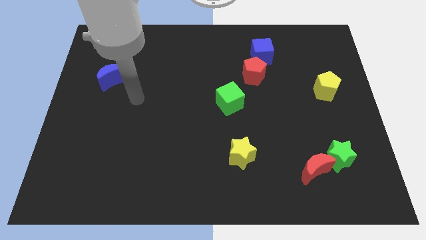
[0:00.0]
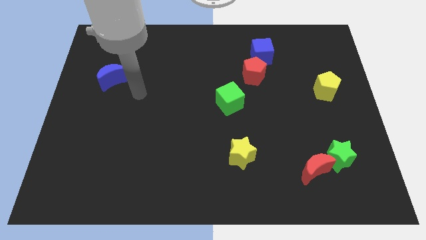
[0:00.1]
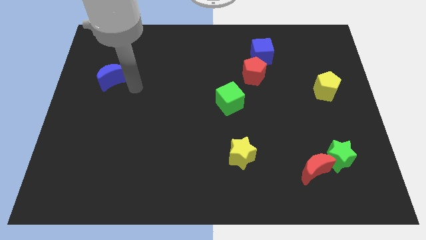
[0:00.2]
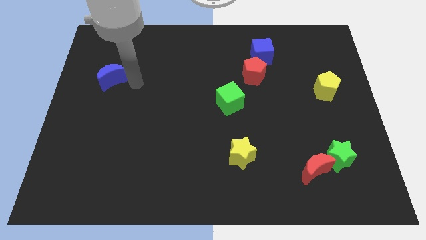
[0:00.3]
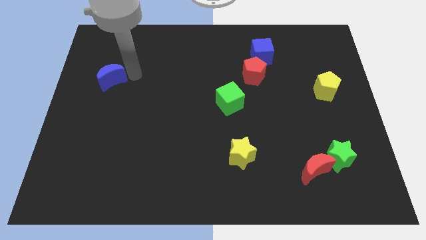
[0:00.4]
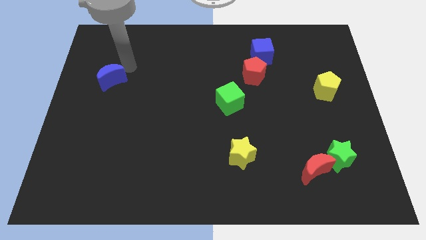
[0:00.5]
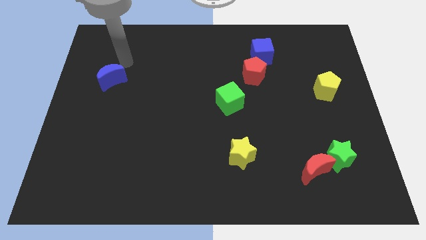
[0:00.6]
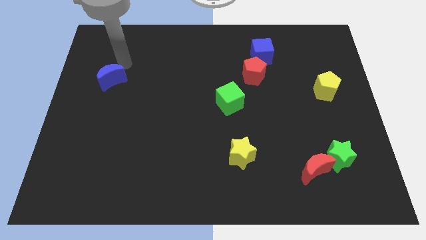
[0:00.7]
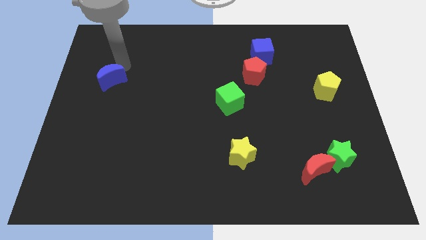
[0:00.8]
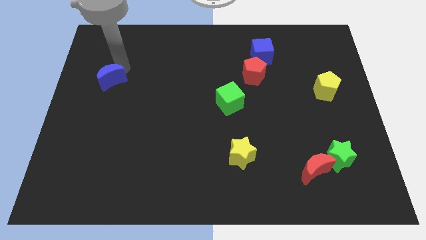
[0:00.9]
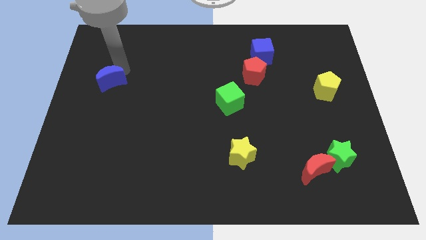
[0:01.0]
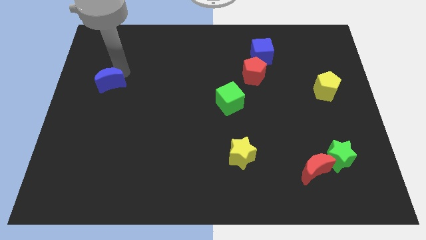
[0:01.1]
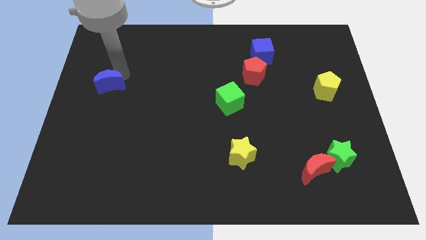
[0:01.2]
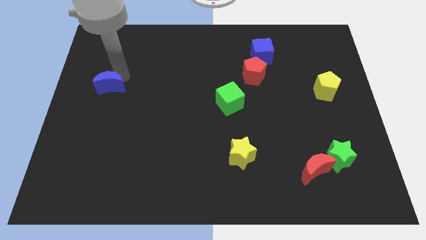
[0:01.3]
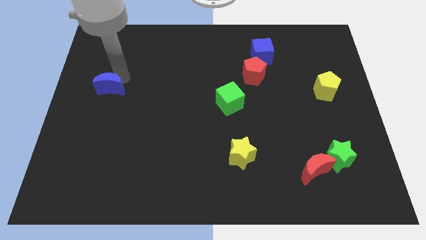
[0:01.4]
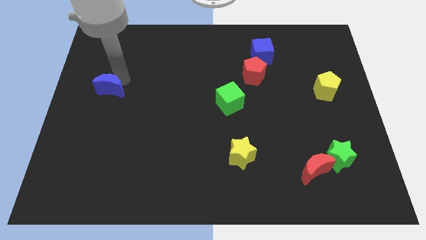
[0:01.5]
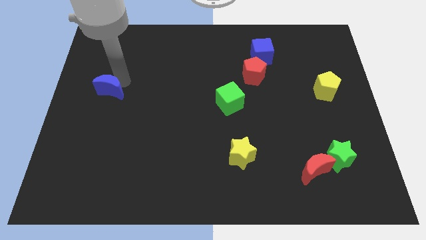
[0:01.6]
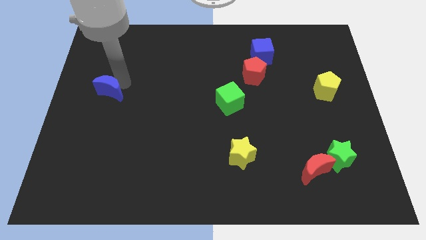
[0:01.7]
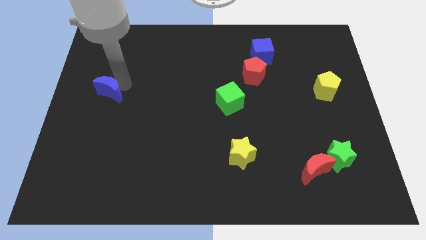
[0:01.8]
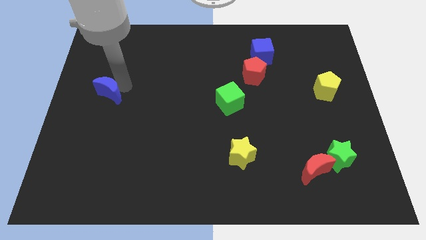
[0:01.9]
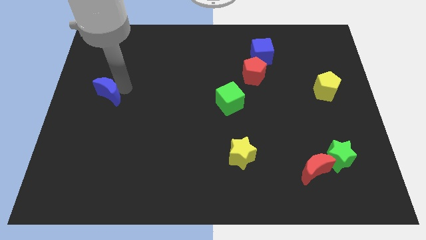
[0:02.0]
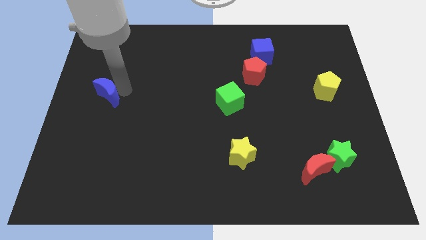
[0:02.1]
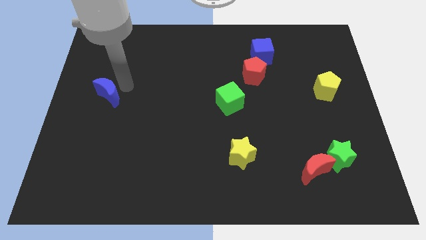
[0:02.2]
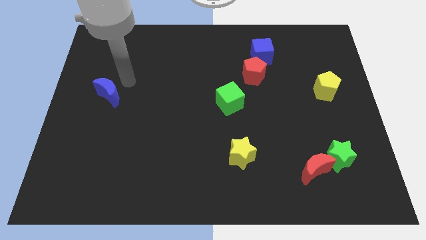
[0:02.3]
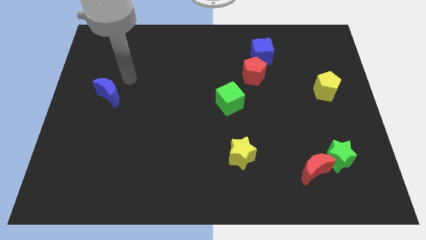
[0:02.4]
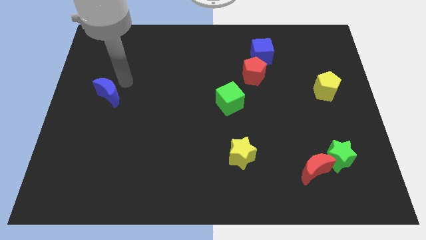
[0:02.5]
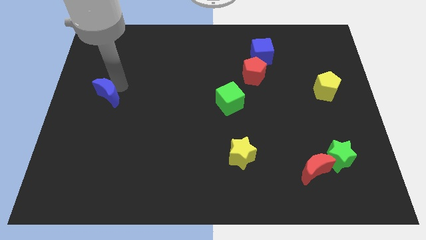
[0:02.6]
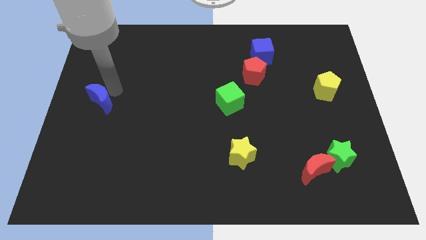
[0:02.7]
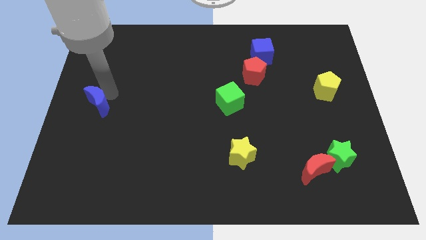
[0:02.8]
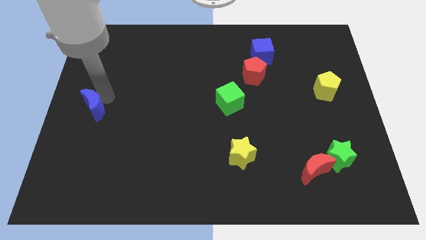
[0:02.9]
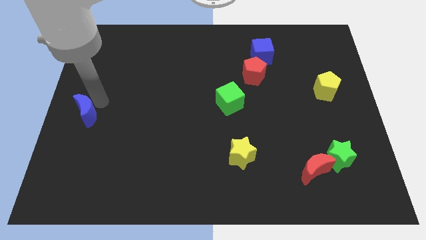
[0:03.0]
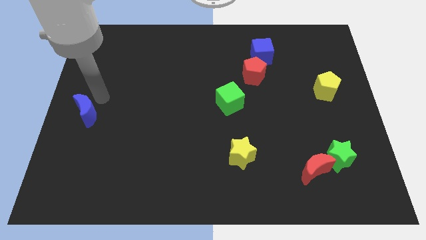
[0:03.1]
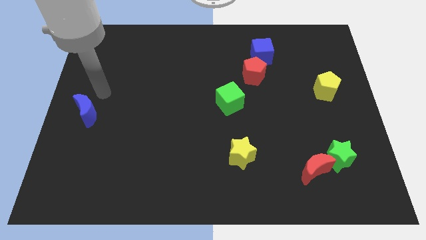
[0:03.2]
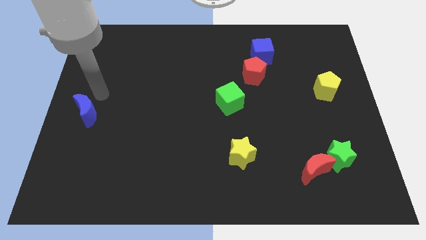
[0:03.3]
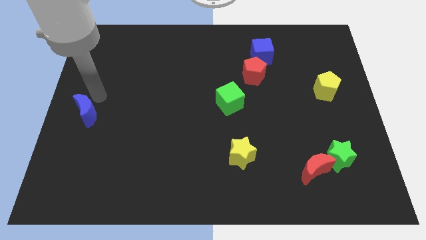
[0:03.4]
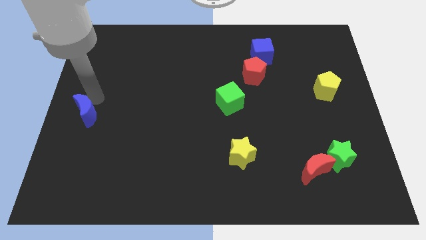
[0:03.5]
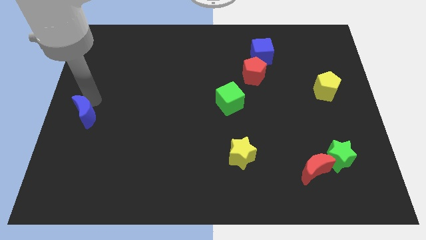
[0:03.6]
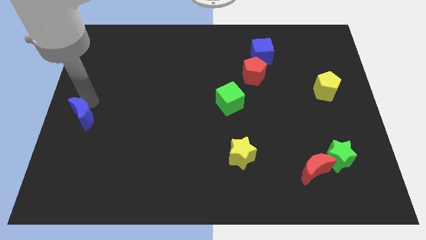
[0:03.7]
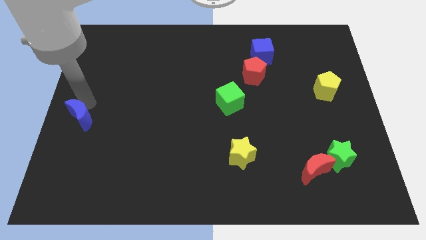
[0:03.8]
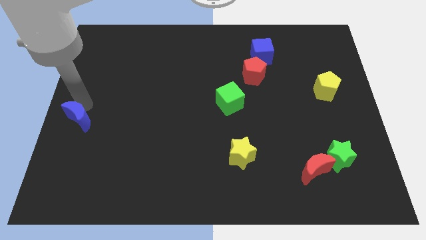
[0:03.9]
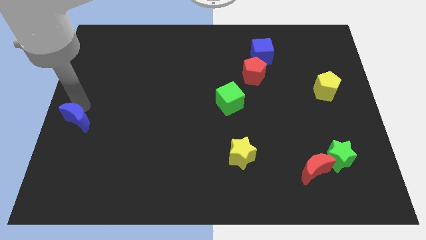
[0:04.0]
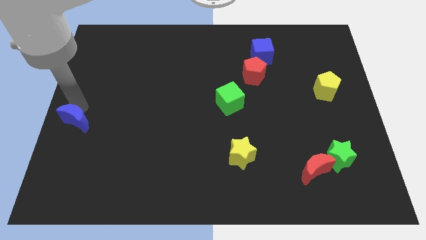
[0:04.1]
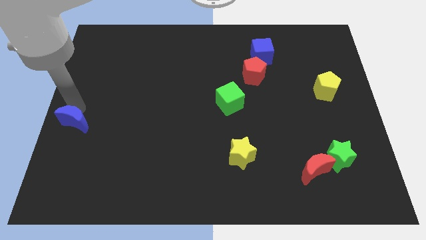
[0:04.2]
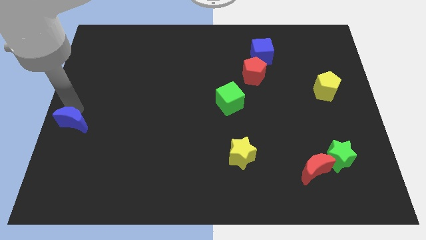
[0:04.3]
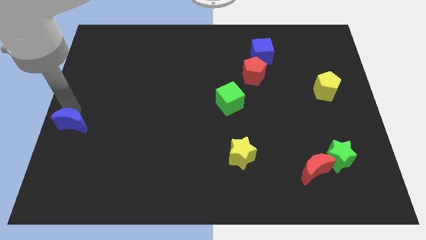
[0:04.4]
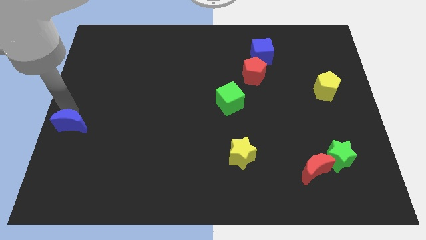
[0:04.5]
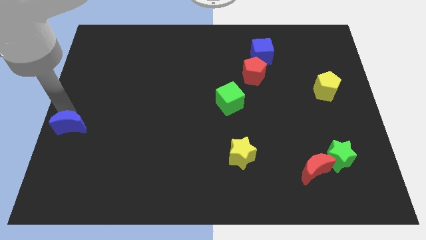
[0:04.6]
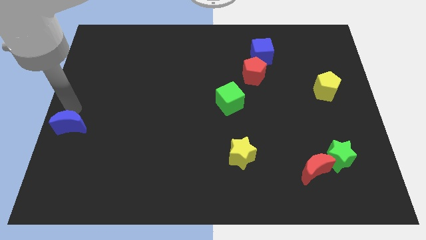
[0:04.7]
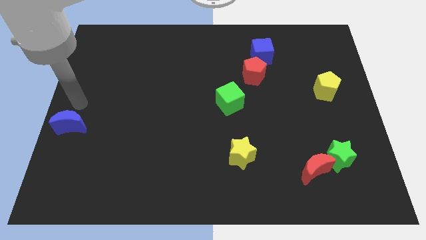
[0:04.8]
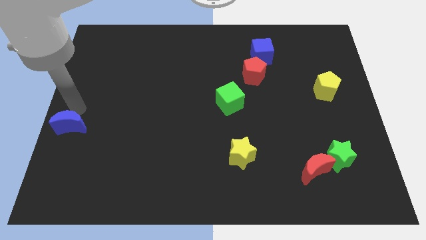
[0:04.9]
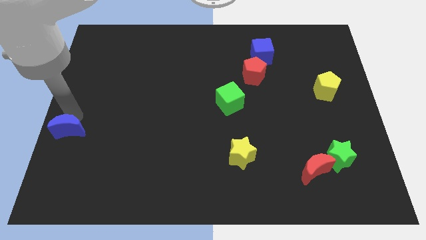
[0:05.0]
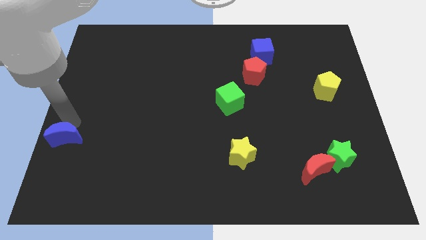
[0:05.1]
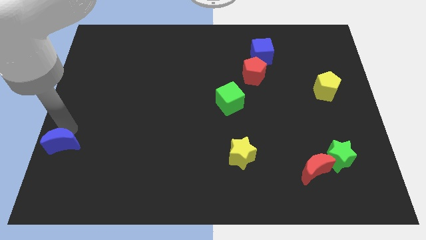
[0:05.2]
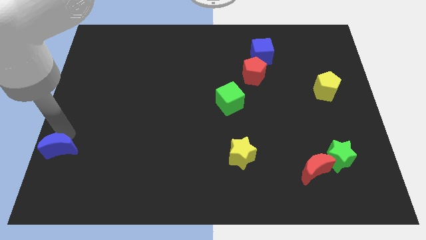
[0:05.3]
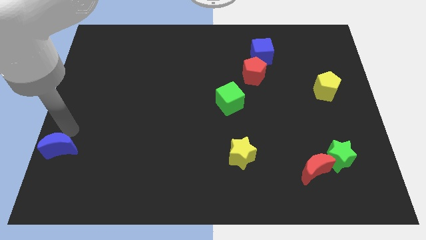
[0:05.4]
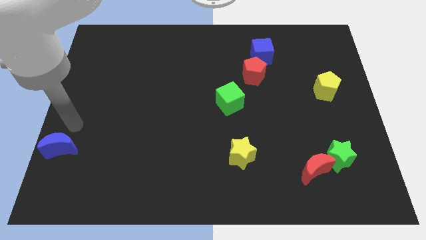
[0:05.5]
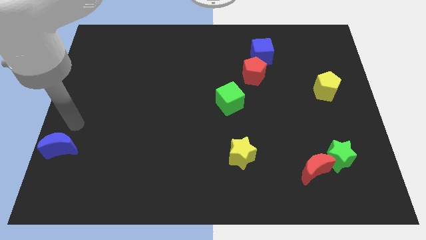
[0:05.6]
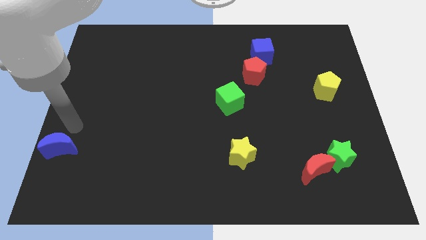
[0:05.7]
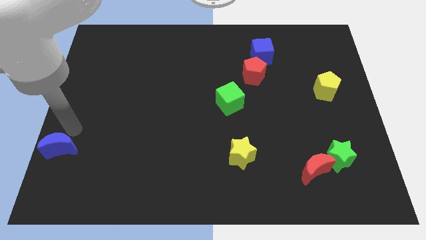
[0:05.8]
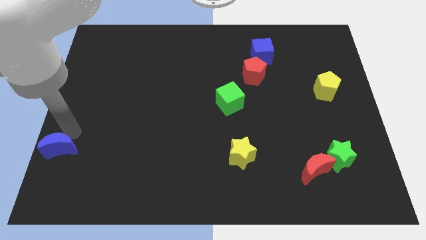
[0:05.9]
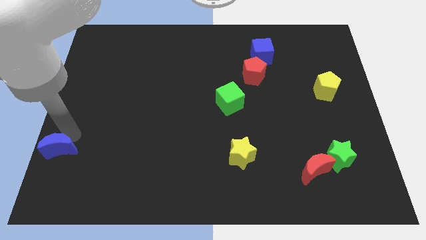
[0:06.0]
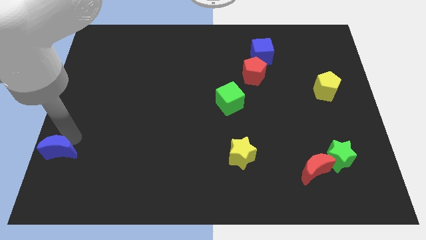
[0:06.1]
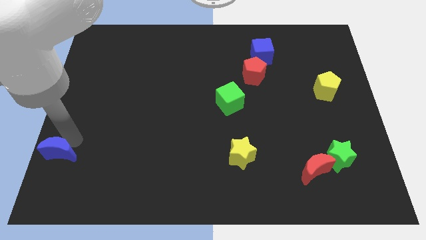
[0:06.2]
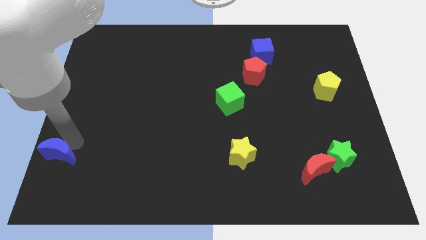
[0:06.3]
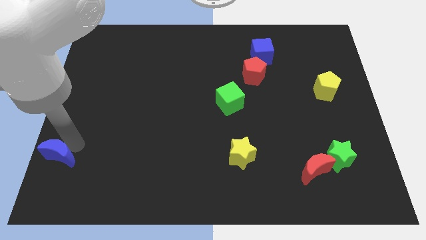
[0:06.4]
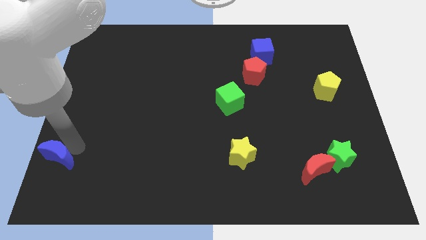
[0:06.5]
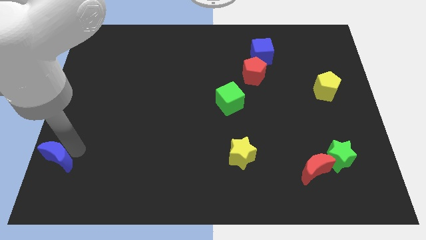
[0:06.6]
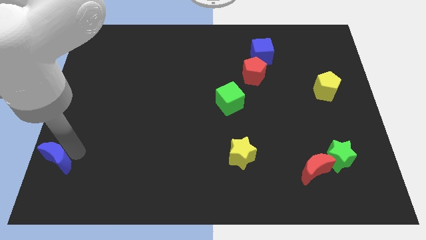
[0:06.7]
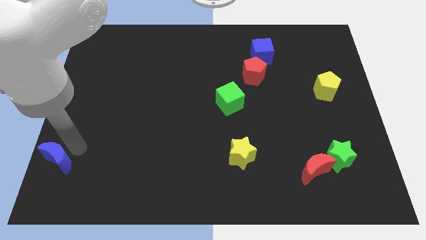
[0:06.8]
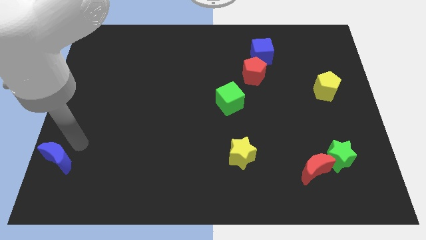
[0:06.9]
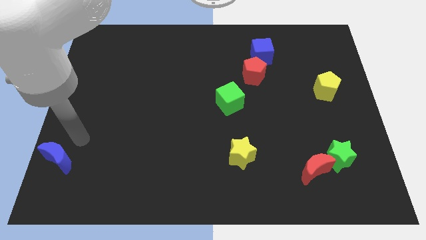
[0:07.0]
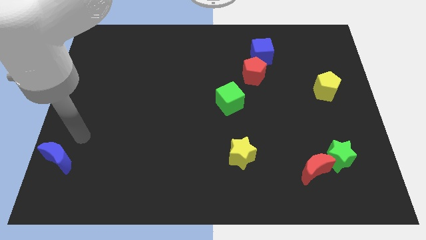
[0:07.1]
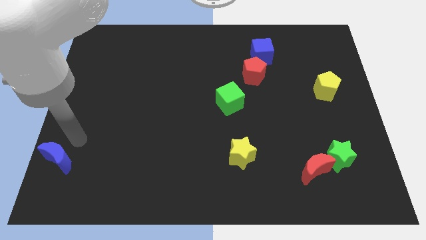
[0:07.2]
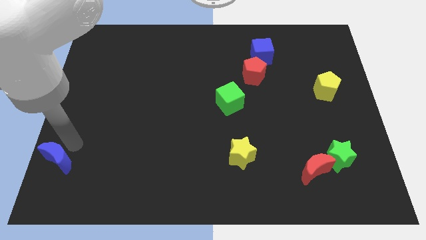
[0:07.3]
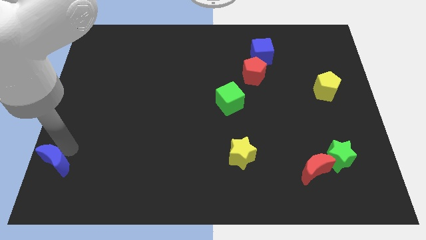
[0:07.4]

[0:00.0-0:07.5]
move the blue moon to the bottom left corner
